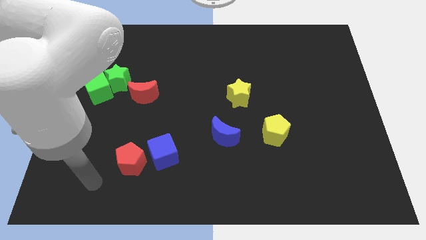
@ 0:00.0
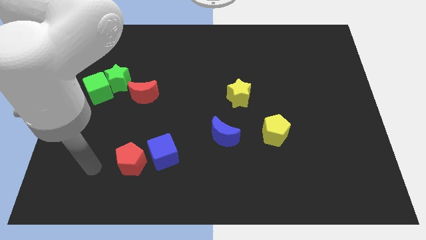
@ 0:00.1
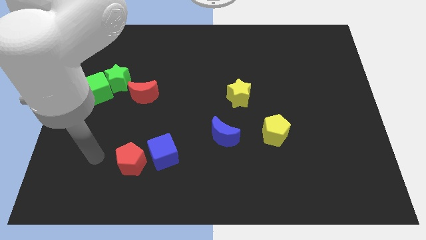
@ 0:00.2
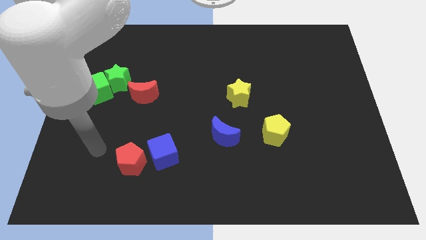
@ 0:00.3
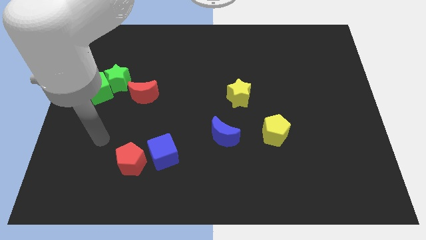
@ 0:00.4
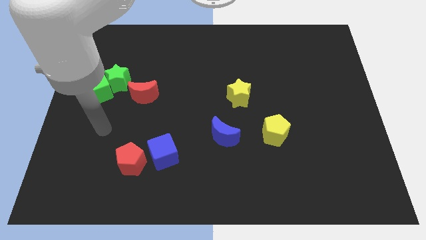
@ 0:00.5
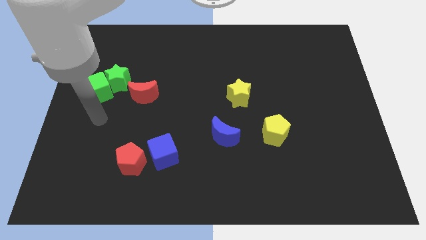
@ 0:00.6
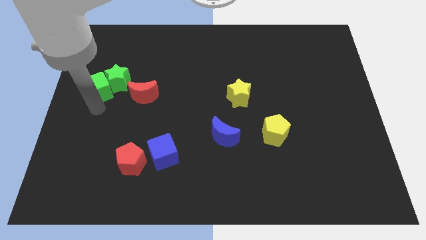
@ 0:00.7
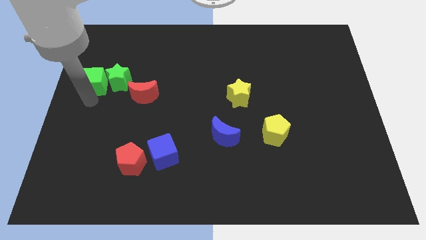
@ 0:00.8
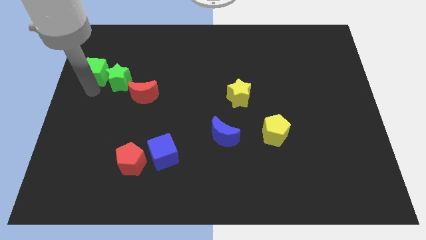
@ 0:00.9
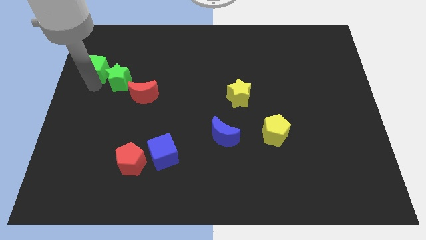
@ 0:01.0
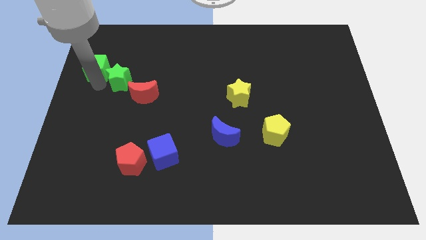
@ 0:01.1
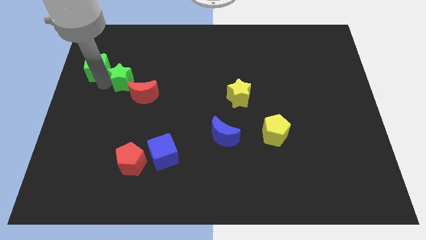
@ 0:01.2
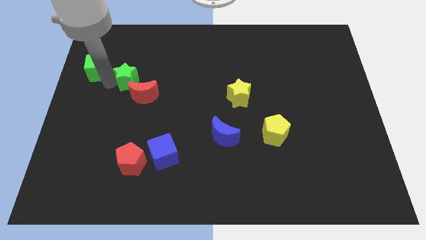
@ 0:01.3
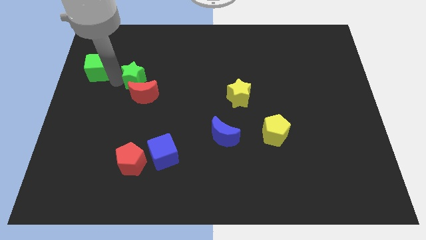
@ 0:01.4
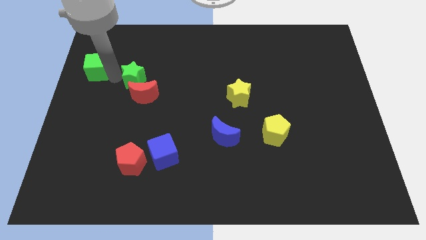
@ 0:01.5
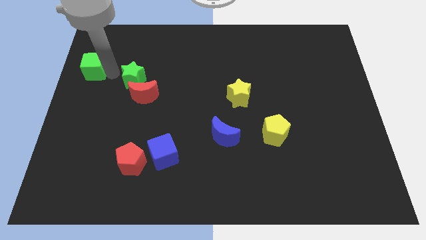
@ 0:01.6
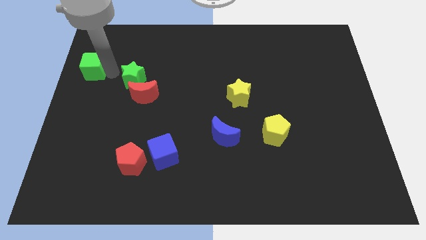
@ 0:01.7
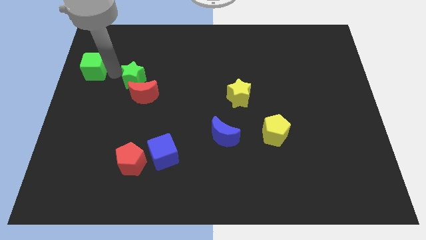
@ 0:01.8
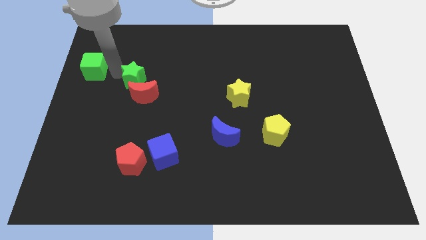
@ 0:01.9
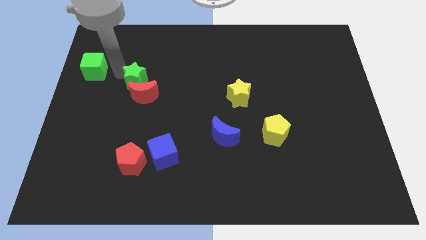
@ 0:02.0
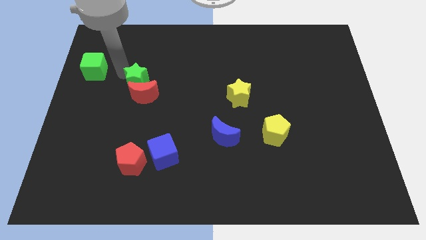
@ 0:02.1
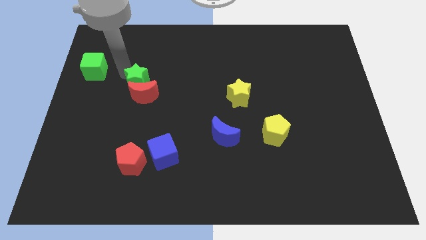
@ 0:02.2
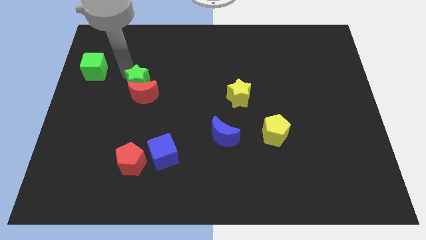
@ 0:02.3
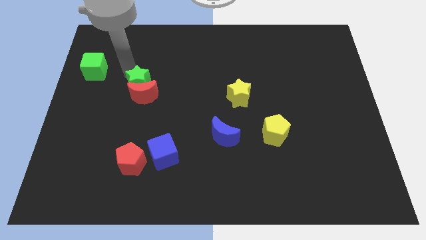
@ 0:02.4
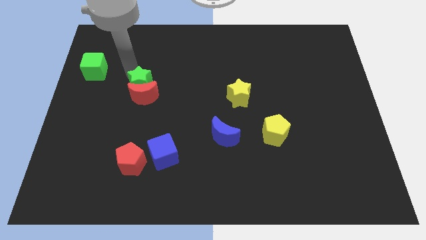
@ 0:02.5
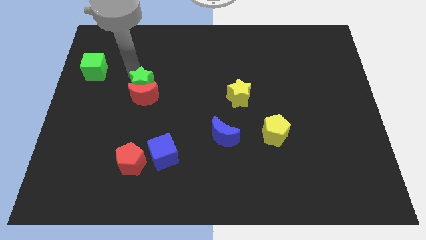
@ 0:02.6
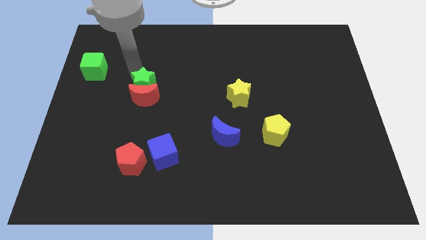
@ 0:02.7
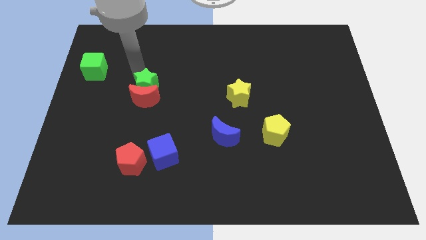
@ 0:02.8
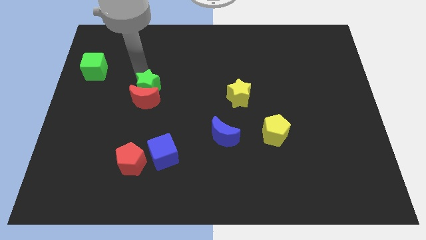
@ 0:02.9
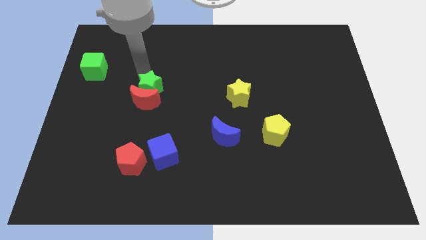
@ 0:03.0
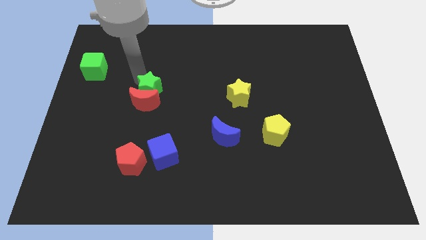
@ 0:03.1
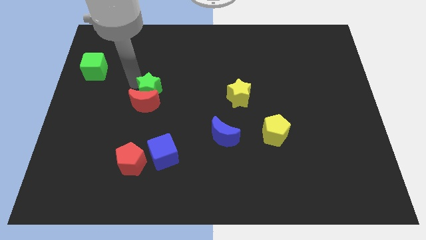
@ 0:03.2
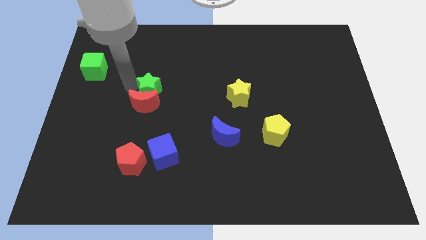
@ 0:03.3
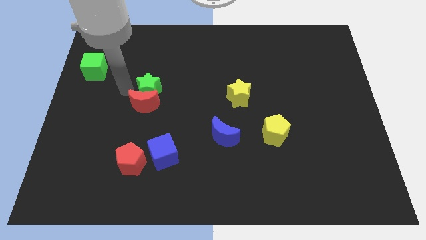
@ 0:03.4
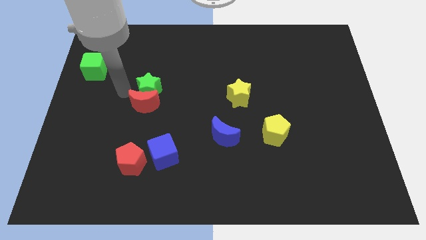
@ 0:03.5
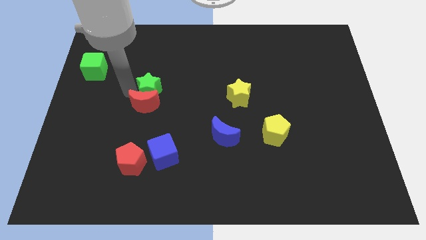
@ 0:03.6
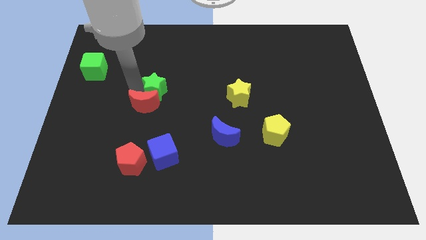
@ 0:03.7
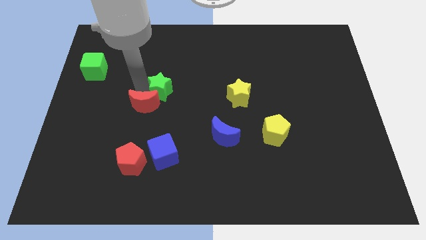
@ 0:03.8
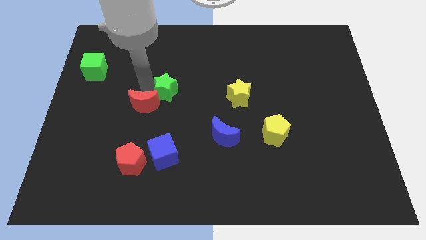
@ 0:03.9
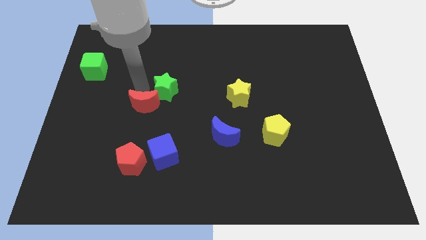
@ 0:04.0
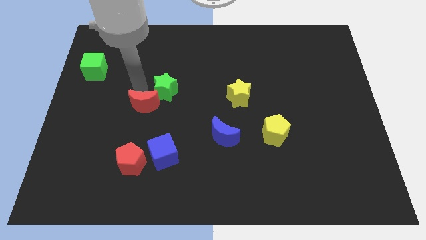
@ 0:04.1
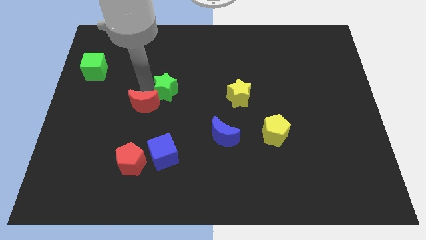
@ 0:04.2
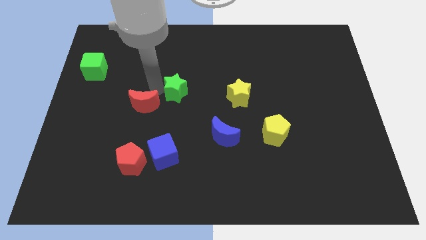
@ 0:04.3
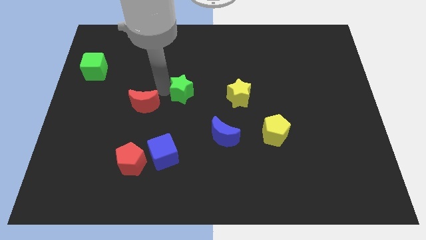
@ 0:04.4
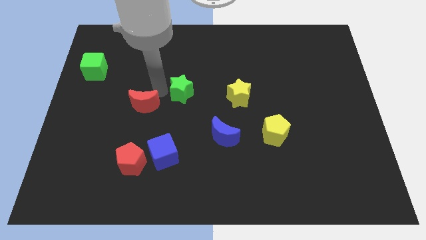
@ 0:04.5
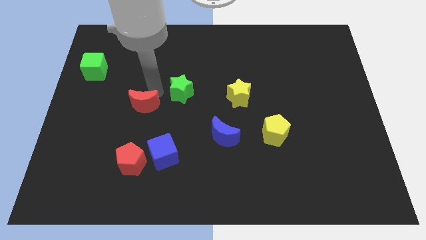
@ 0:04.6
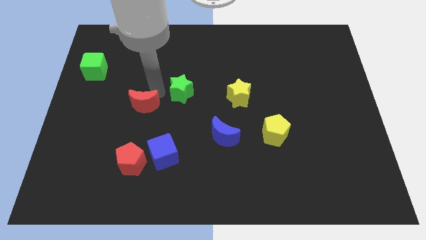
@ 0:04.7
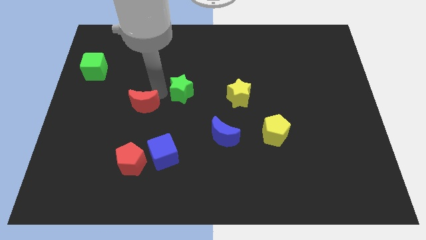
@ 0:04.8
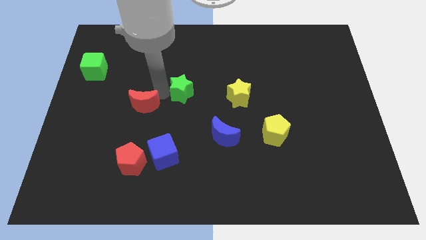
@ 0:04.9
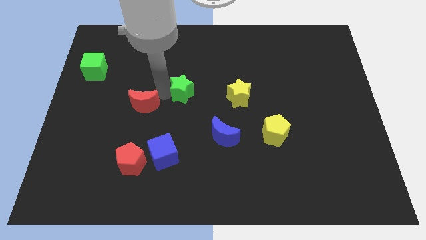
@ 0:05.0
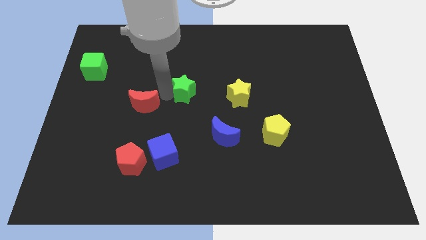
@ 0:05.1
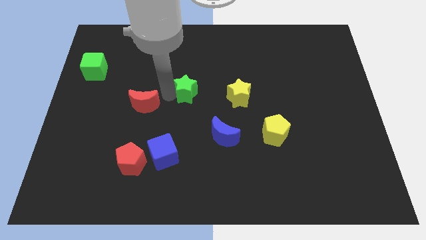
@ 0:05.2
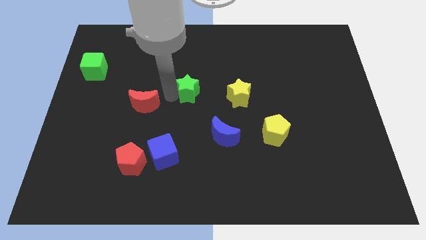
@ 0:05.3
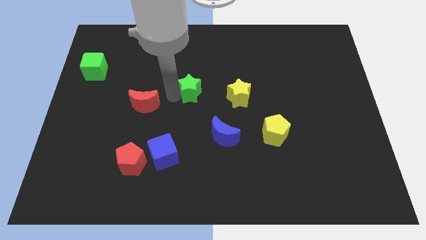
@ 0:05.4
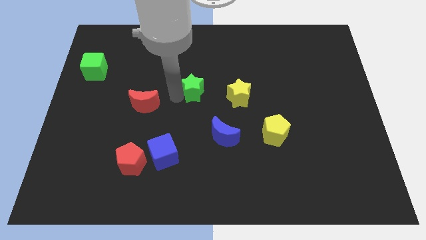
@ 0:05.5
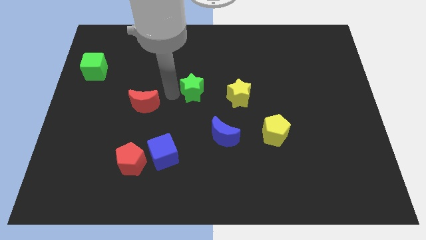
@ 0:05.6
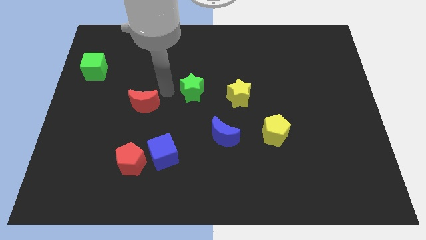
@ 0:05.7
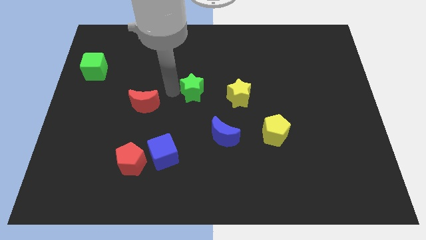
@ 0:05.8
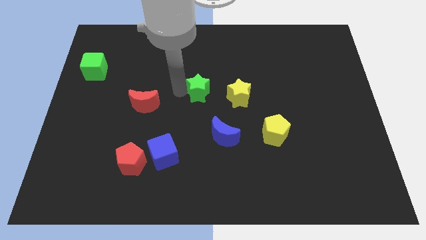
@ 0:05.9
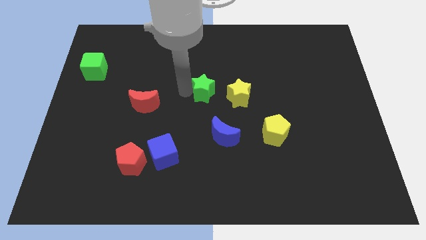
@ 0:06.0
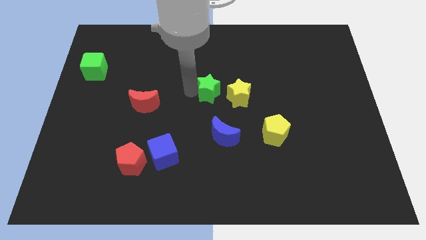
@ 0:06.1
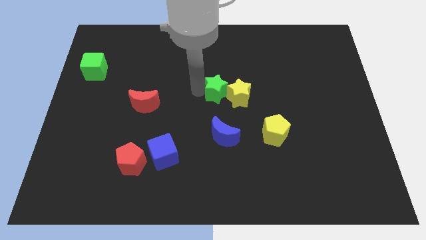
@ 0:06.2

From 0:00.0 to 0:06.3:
move the green star close to the yellow star

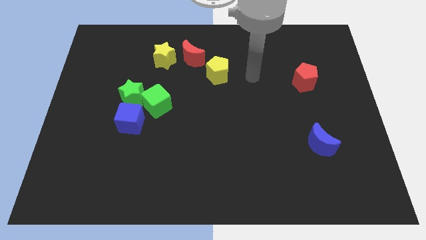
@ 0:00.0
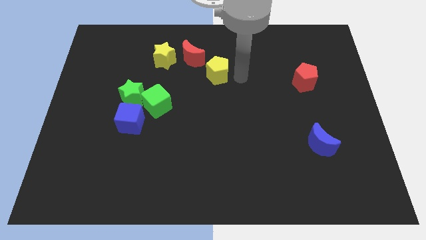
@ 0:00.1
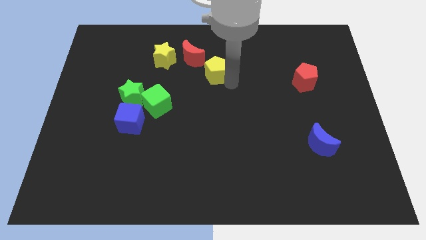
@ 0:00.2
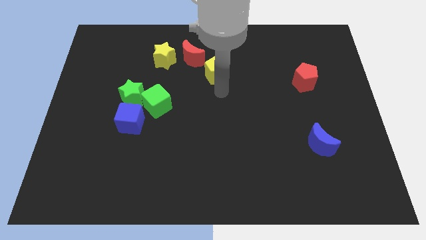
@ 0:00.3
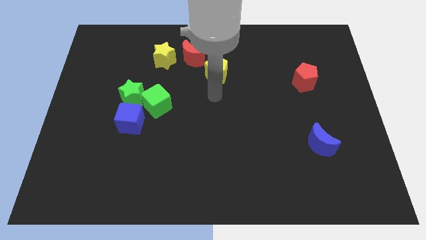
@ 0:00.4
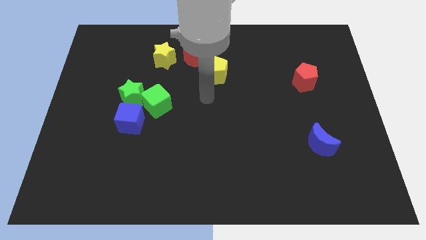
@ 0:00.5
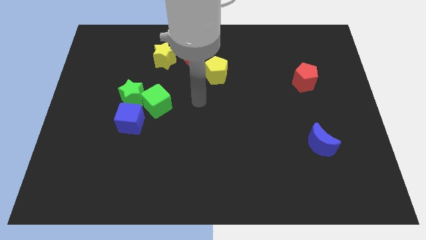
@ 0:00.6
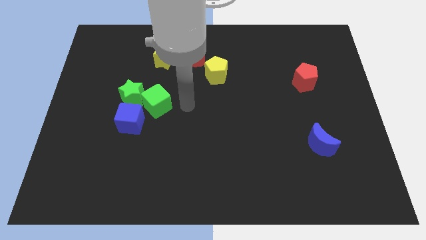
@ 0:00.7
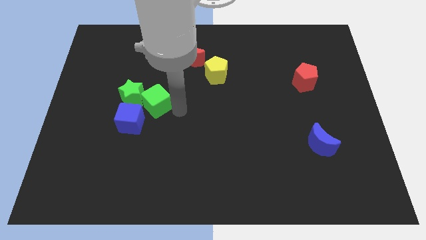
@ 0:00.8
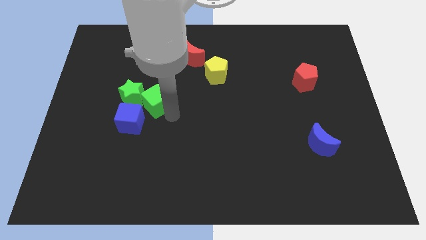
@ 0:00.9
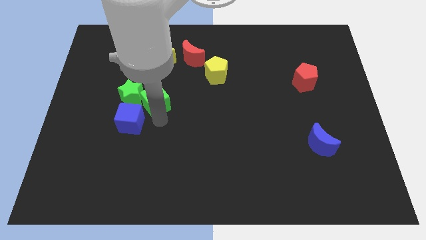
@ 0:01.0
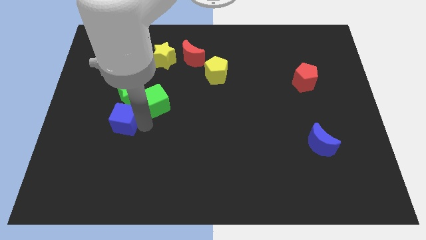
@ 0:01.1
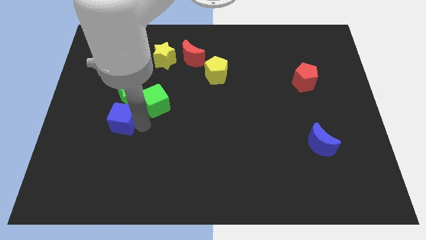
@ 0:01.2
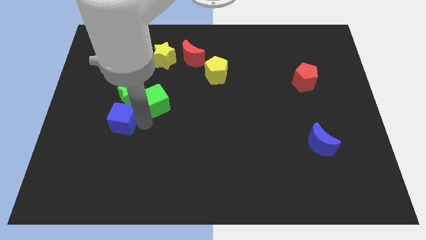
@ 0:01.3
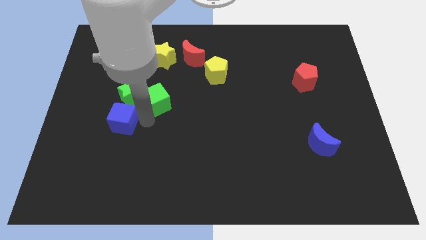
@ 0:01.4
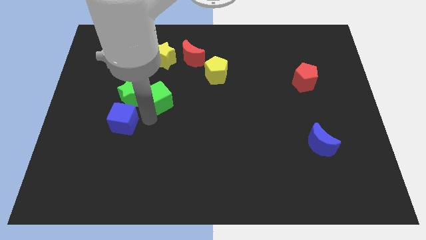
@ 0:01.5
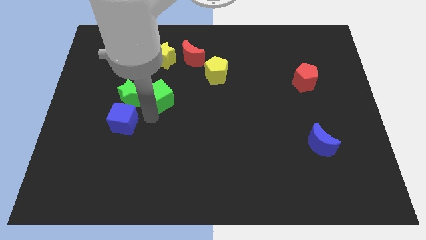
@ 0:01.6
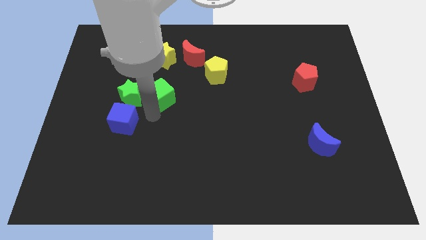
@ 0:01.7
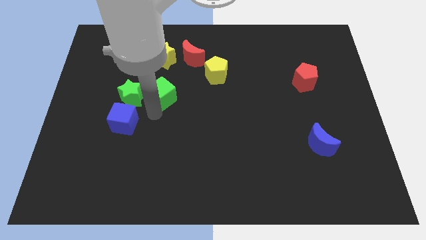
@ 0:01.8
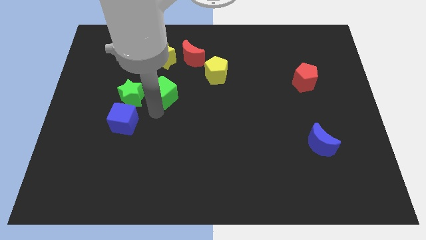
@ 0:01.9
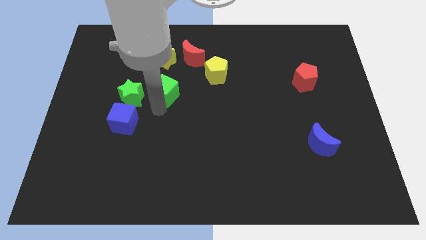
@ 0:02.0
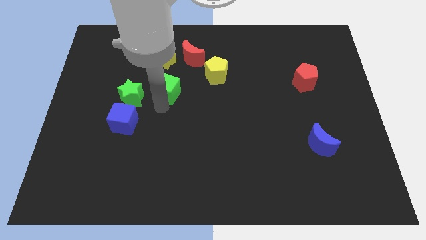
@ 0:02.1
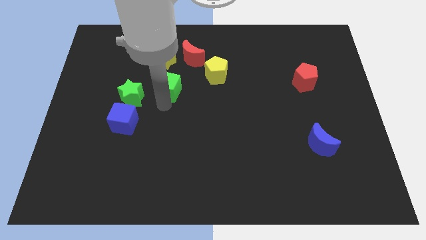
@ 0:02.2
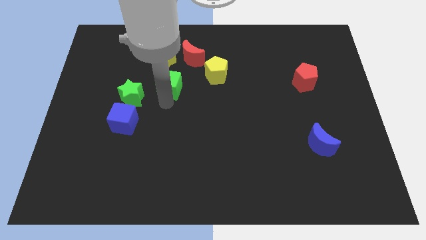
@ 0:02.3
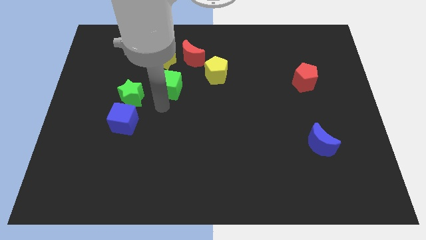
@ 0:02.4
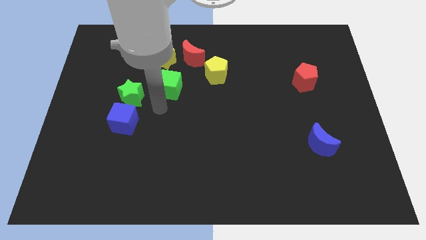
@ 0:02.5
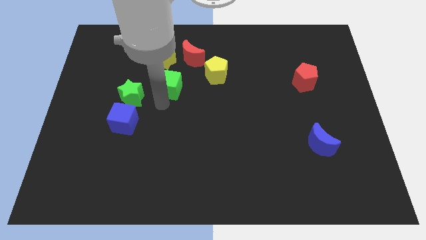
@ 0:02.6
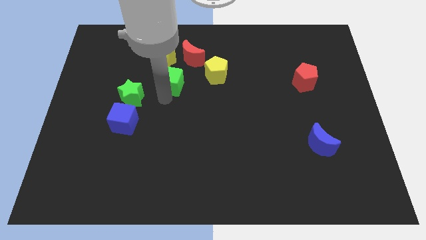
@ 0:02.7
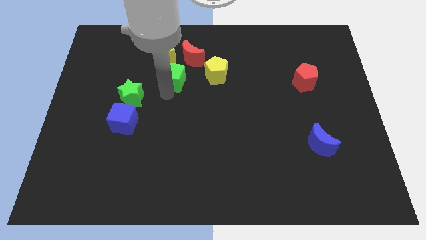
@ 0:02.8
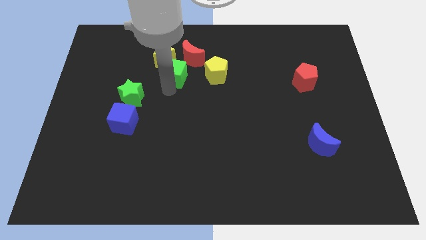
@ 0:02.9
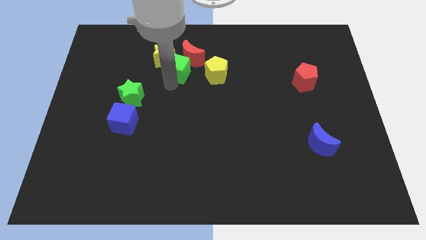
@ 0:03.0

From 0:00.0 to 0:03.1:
move the green cube next to the red moon
